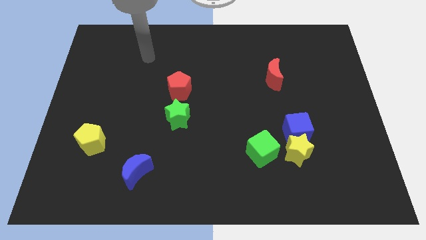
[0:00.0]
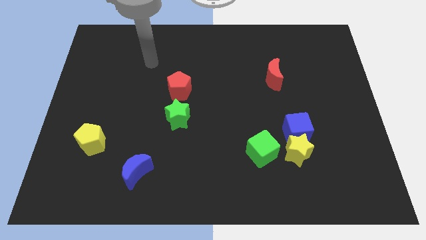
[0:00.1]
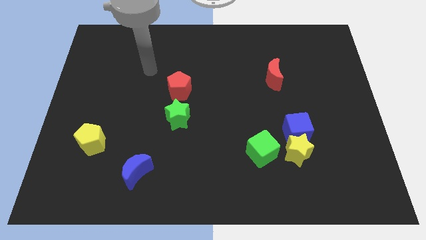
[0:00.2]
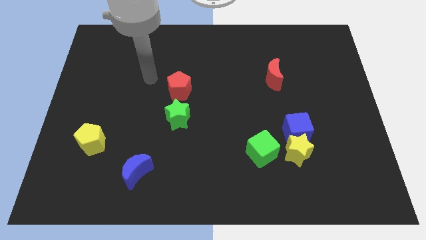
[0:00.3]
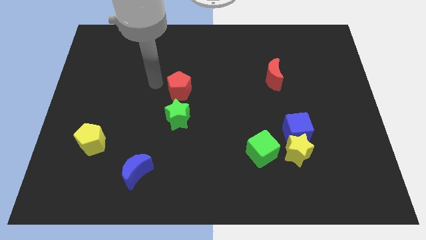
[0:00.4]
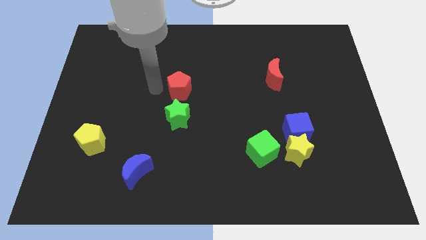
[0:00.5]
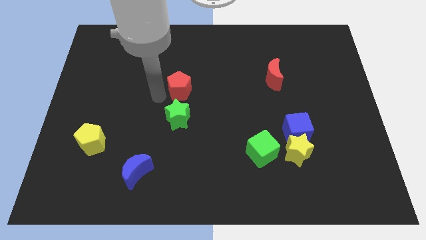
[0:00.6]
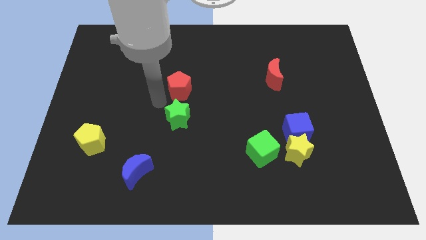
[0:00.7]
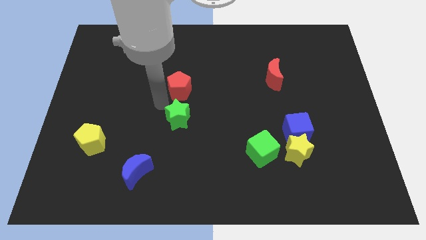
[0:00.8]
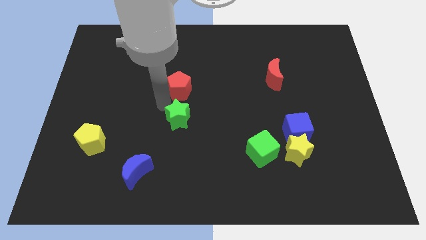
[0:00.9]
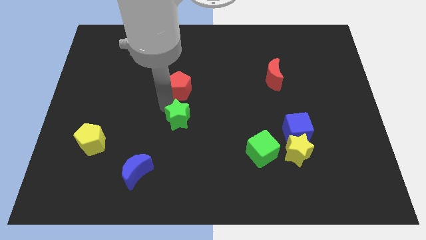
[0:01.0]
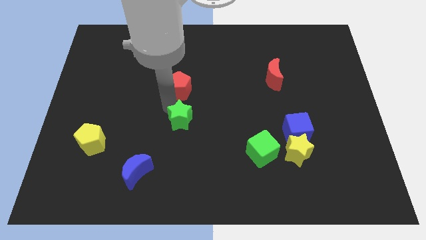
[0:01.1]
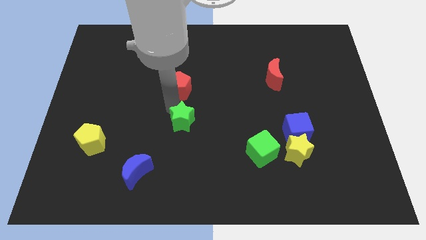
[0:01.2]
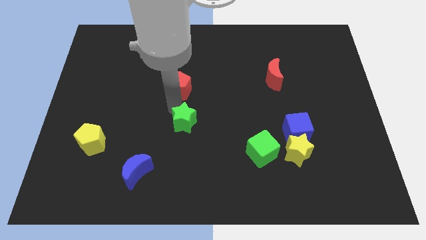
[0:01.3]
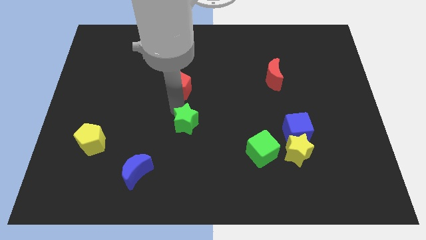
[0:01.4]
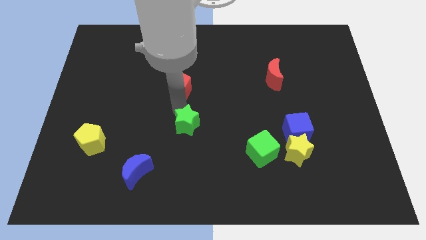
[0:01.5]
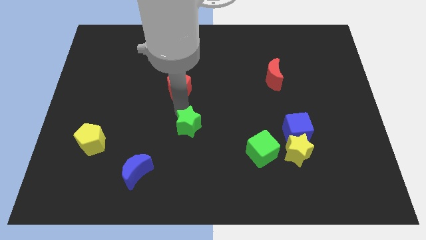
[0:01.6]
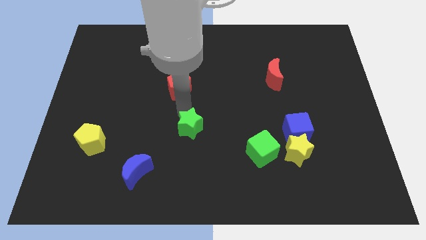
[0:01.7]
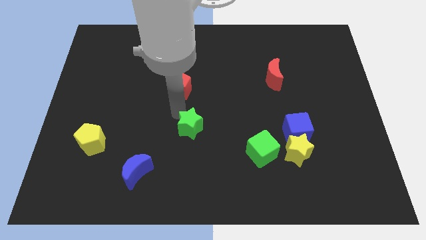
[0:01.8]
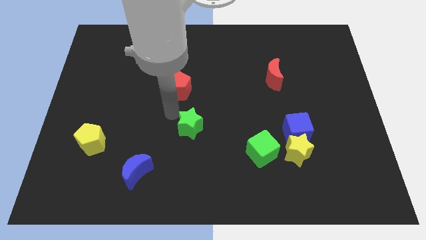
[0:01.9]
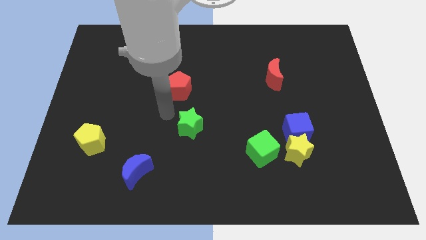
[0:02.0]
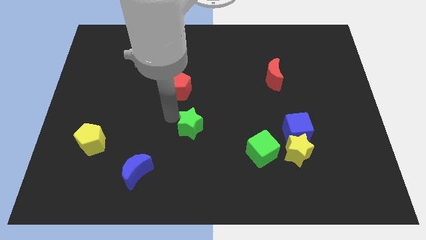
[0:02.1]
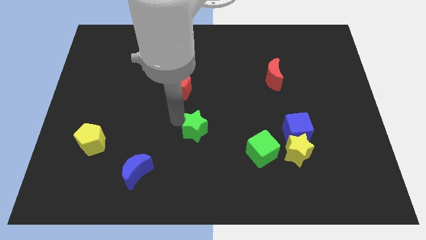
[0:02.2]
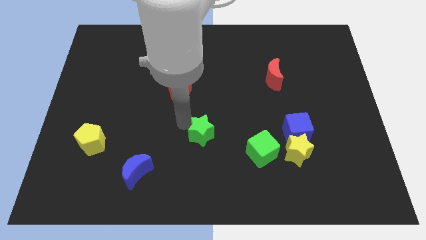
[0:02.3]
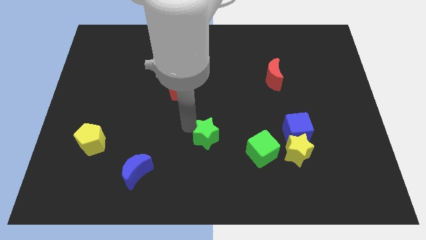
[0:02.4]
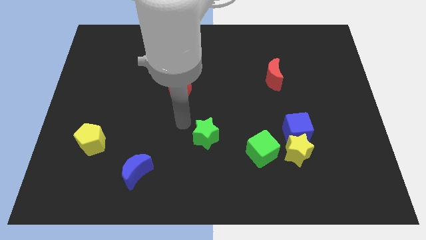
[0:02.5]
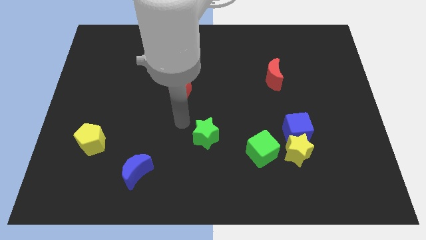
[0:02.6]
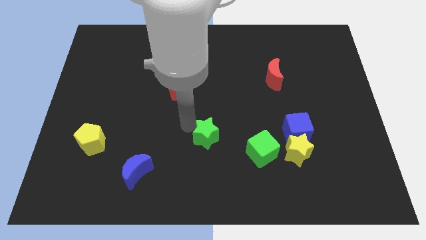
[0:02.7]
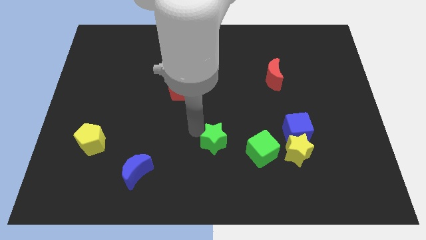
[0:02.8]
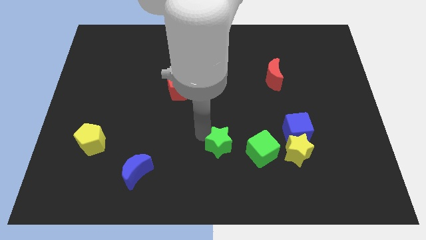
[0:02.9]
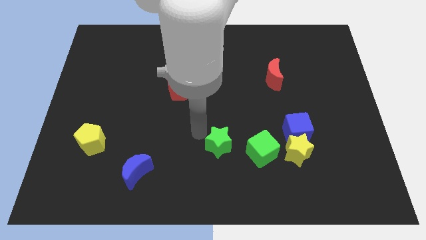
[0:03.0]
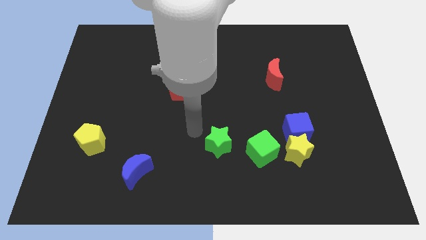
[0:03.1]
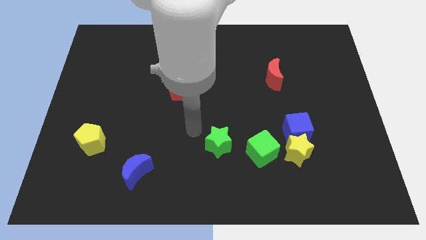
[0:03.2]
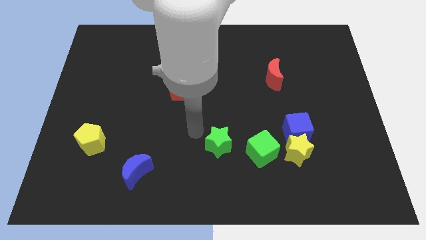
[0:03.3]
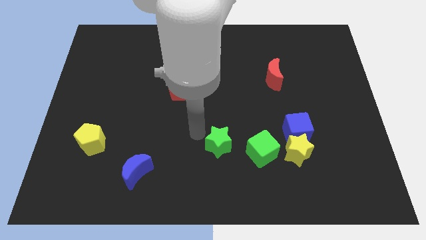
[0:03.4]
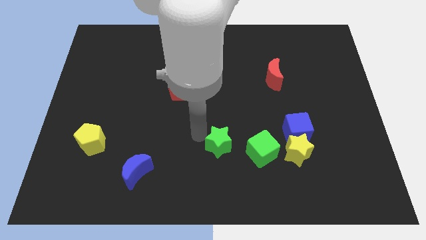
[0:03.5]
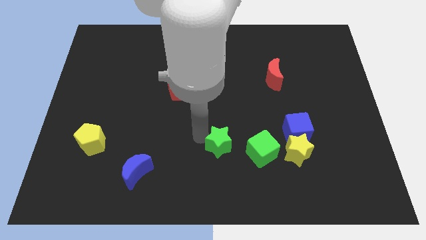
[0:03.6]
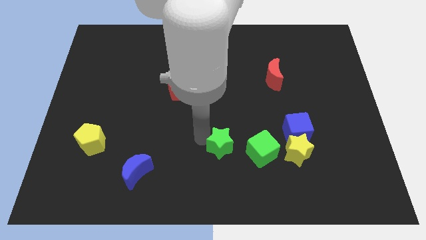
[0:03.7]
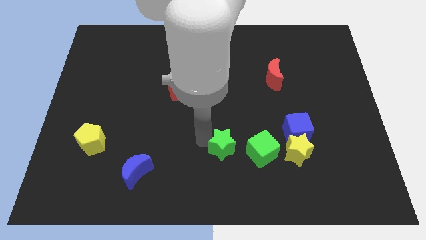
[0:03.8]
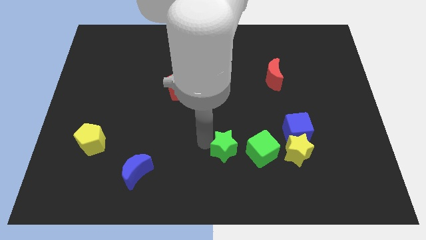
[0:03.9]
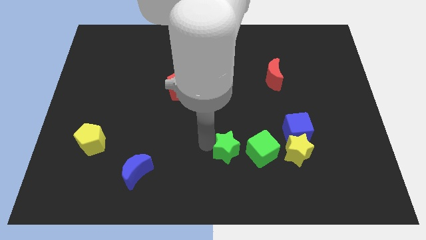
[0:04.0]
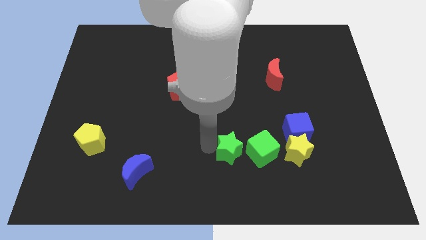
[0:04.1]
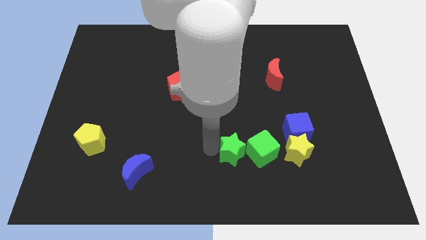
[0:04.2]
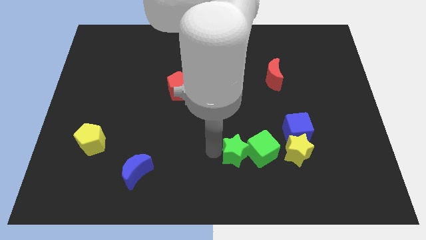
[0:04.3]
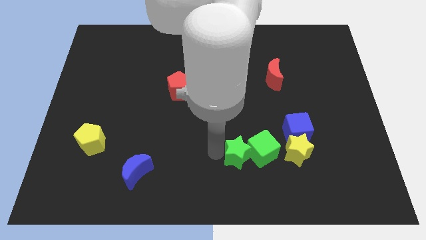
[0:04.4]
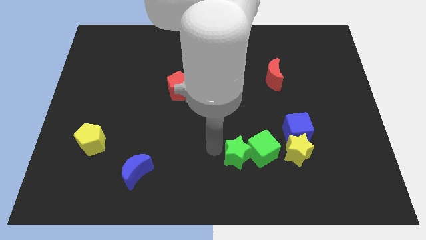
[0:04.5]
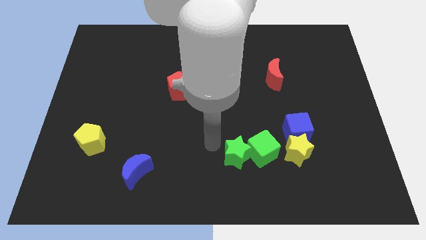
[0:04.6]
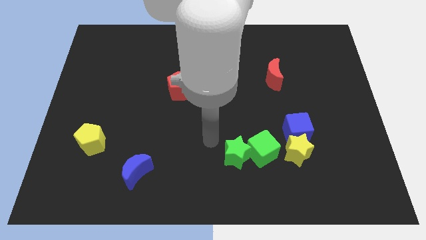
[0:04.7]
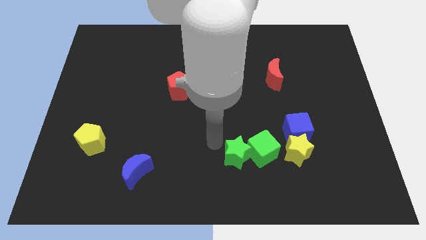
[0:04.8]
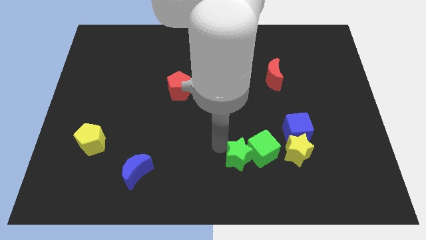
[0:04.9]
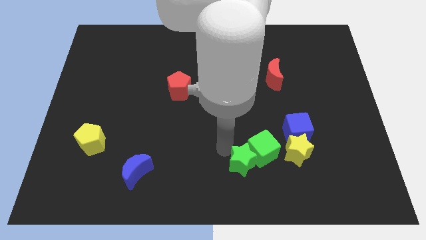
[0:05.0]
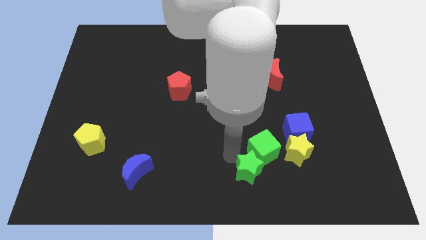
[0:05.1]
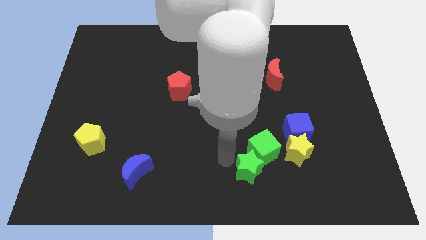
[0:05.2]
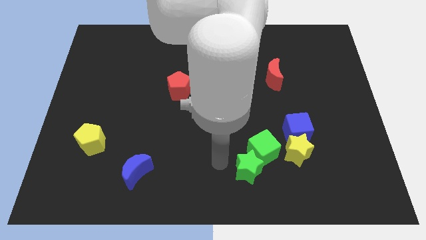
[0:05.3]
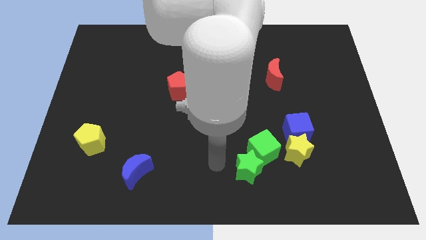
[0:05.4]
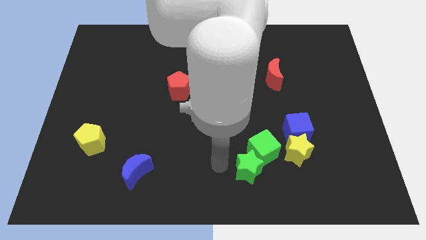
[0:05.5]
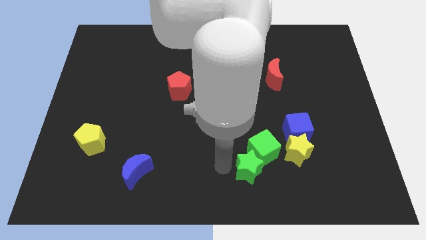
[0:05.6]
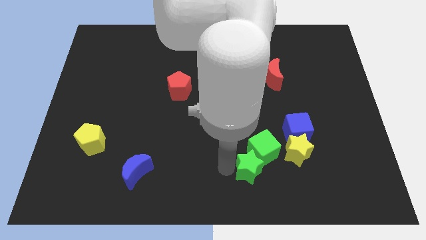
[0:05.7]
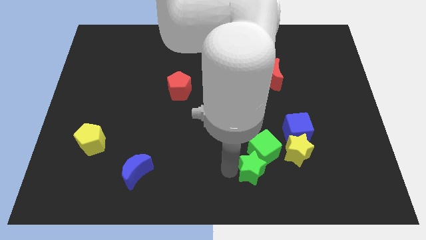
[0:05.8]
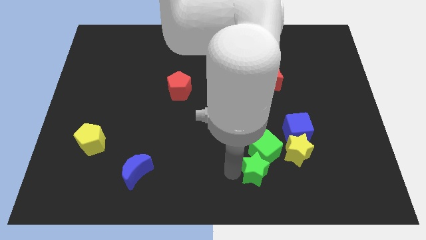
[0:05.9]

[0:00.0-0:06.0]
slide the green star to the bottom left side of the yellow star

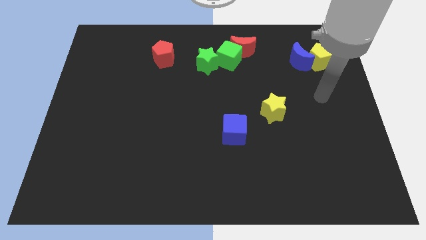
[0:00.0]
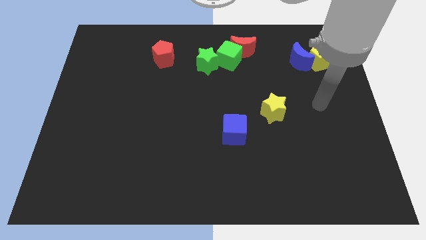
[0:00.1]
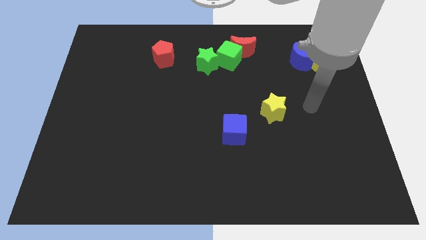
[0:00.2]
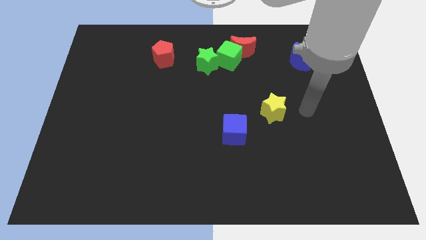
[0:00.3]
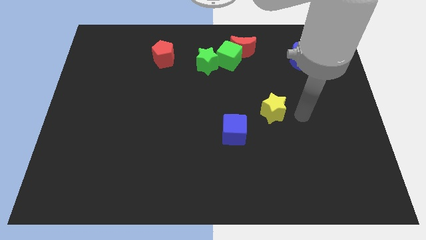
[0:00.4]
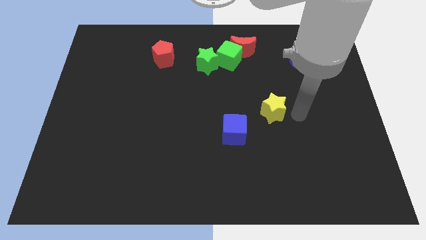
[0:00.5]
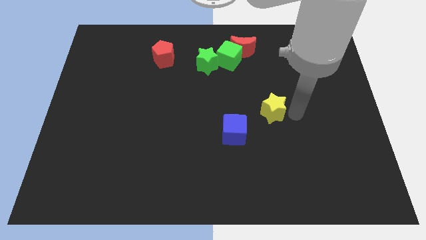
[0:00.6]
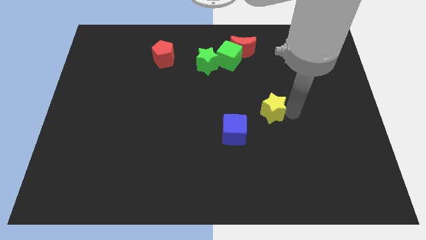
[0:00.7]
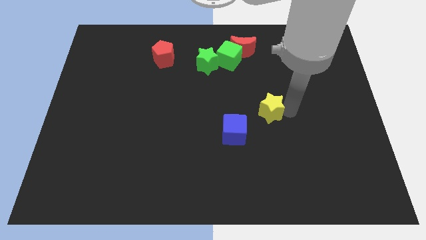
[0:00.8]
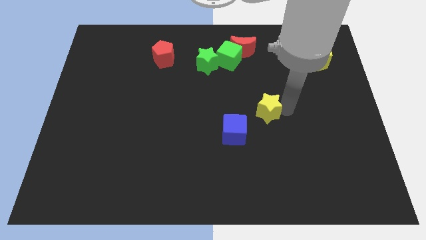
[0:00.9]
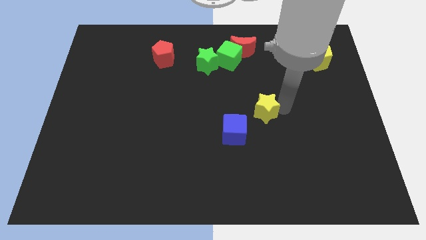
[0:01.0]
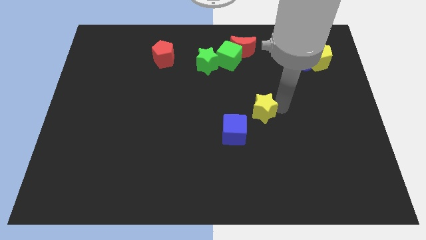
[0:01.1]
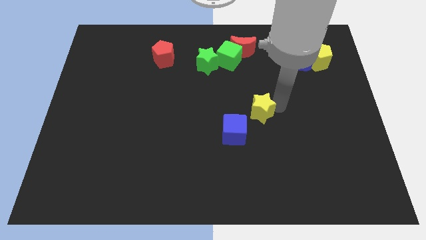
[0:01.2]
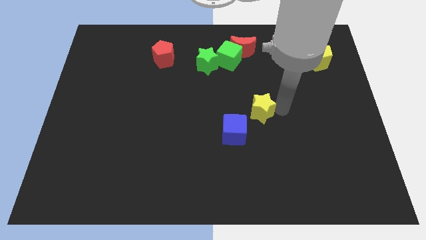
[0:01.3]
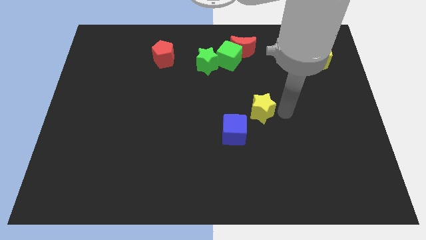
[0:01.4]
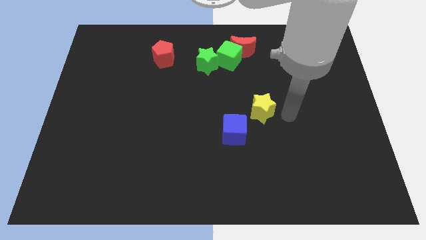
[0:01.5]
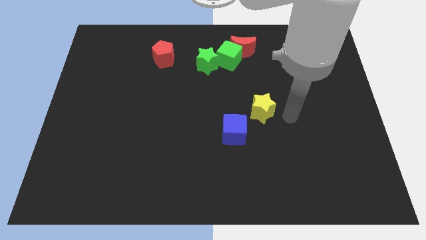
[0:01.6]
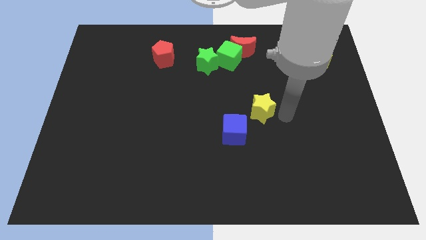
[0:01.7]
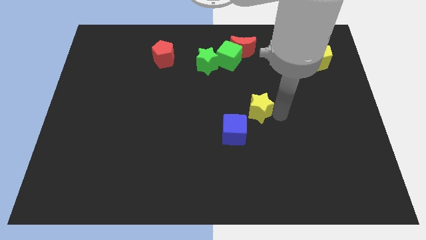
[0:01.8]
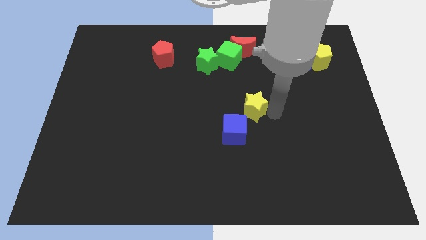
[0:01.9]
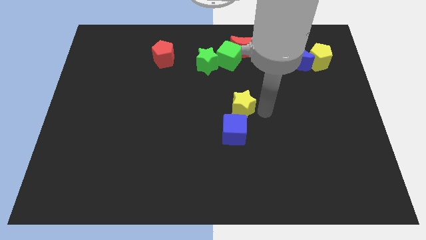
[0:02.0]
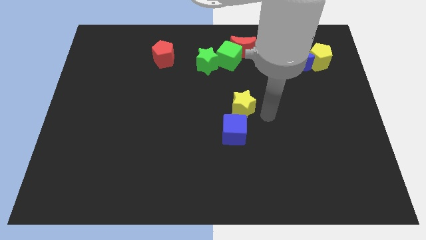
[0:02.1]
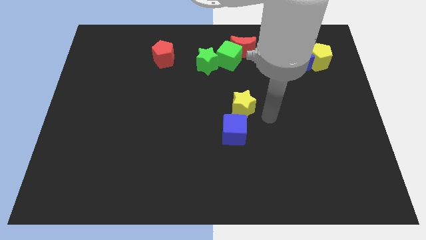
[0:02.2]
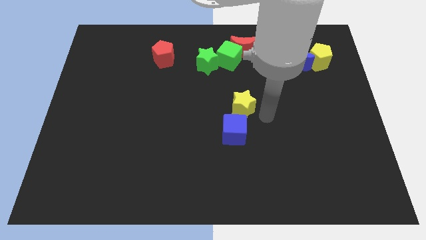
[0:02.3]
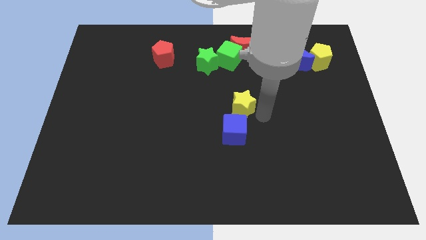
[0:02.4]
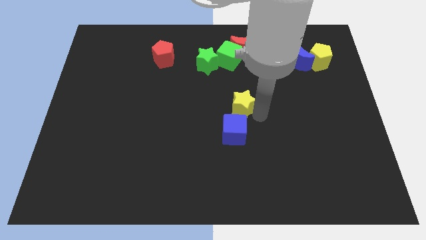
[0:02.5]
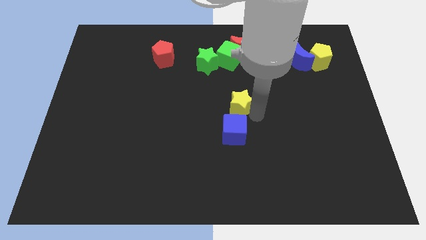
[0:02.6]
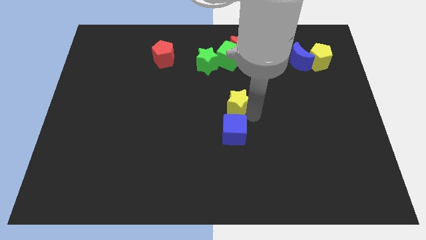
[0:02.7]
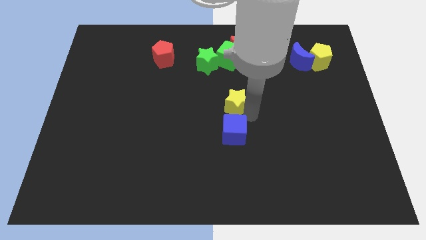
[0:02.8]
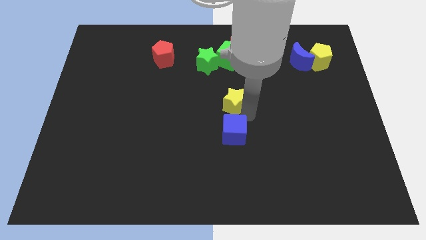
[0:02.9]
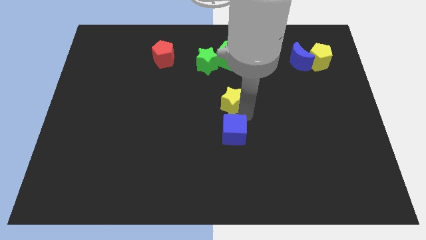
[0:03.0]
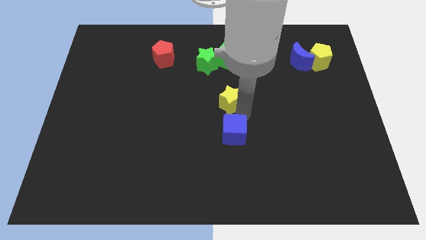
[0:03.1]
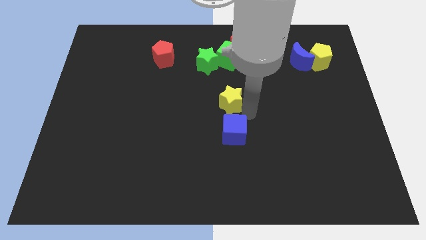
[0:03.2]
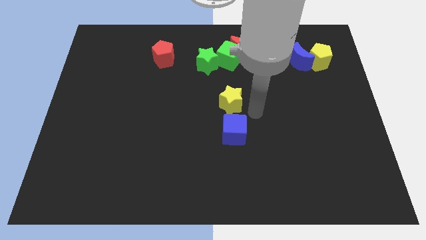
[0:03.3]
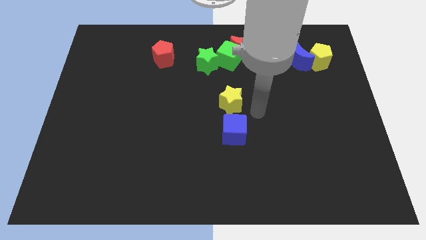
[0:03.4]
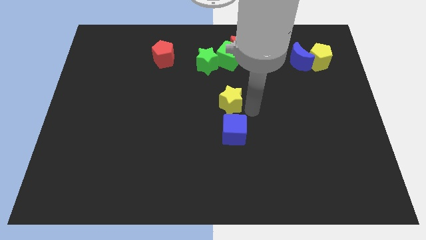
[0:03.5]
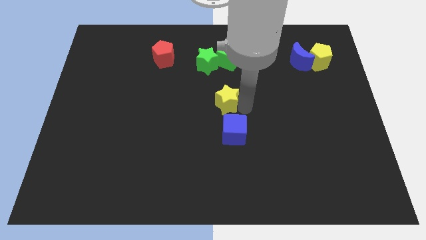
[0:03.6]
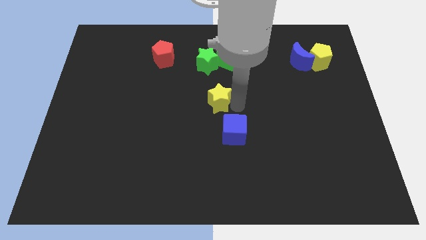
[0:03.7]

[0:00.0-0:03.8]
slide the yellow star below the green star
